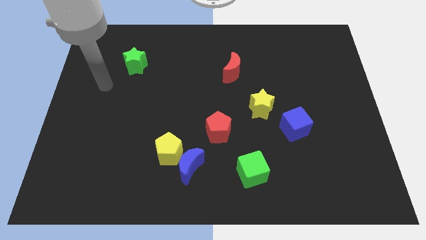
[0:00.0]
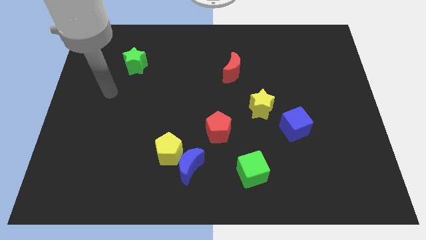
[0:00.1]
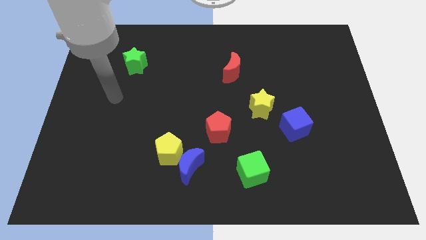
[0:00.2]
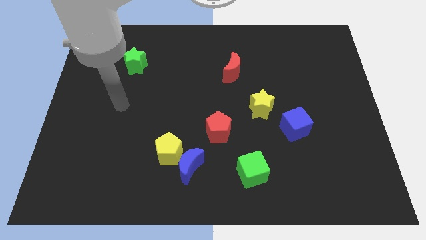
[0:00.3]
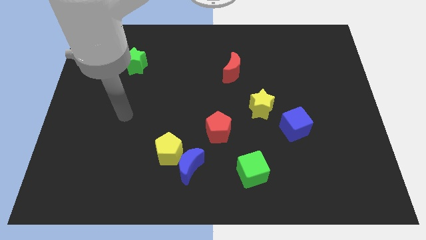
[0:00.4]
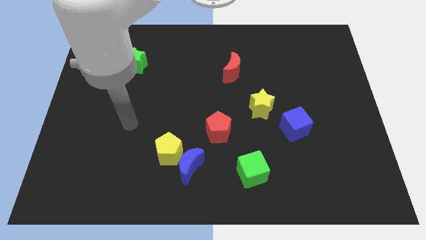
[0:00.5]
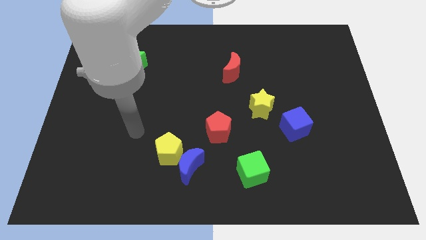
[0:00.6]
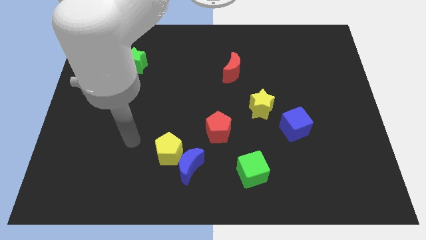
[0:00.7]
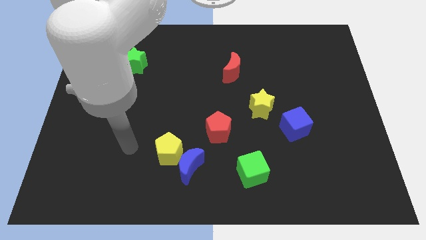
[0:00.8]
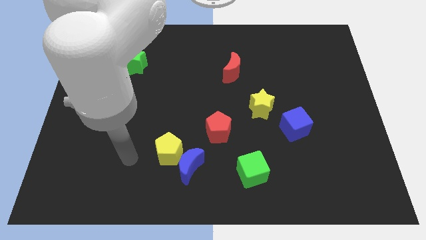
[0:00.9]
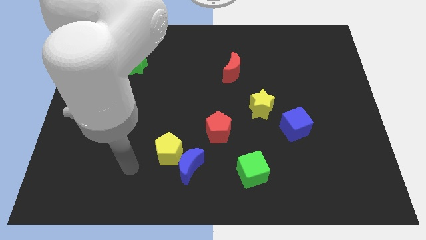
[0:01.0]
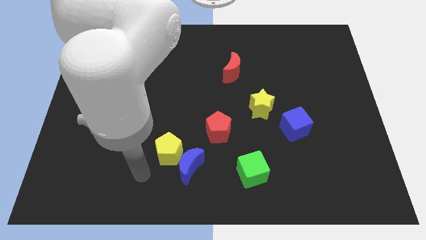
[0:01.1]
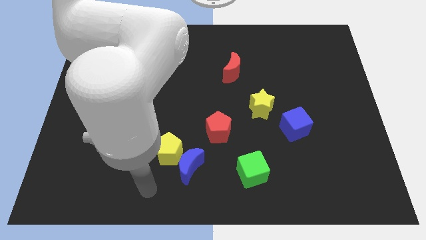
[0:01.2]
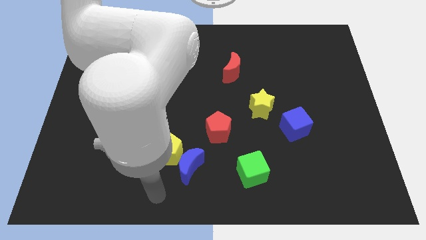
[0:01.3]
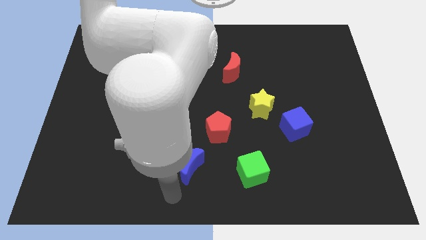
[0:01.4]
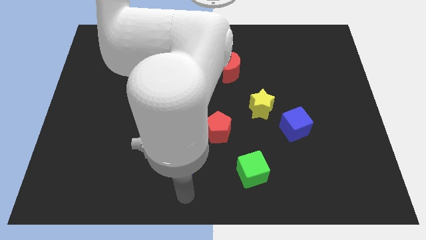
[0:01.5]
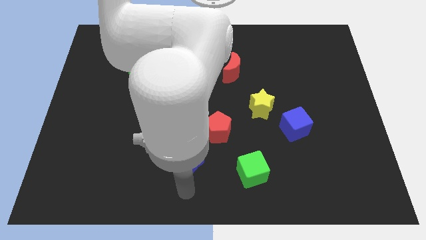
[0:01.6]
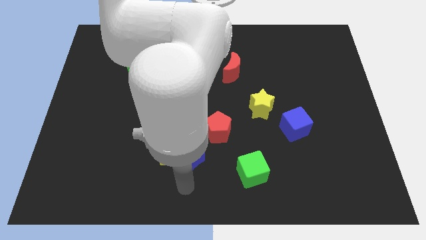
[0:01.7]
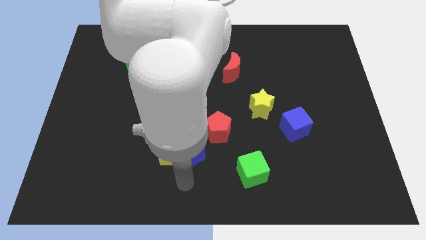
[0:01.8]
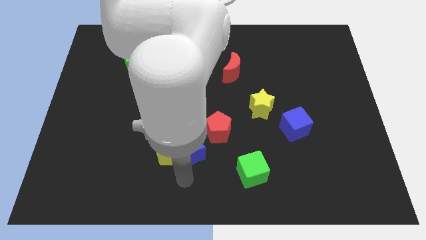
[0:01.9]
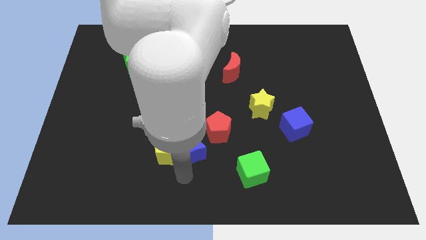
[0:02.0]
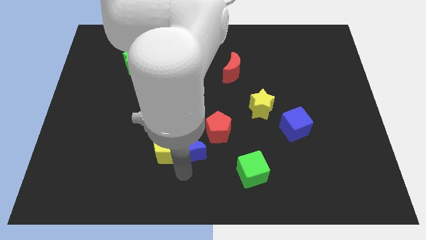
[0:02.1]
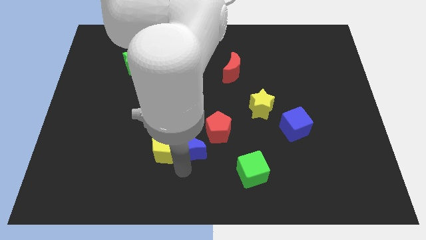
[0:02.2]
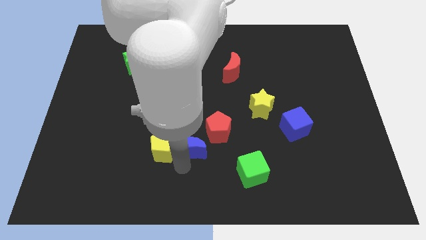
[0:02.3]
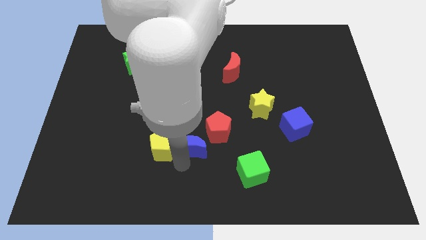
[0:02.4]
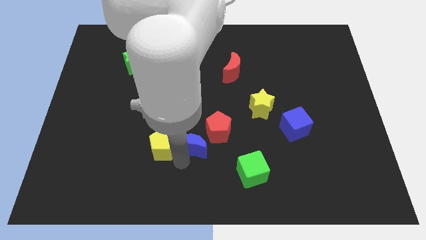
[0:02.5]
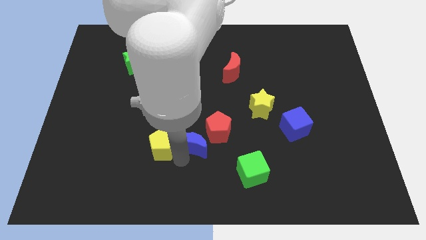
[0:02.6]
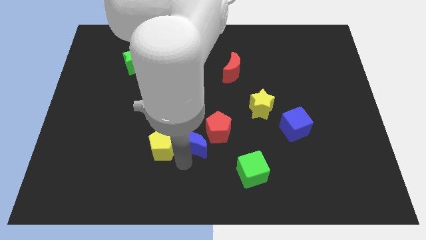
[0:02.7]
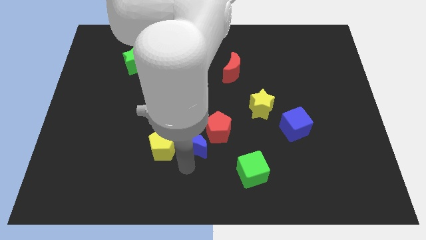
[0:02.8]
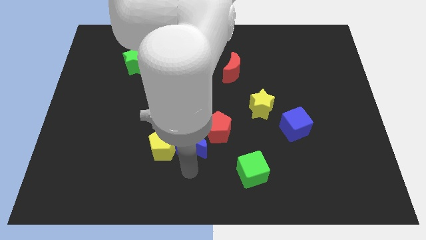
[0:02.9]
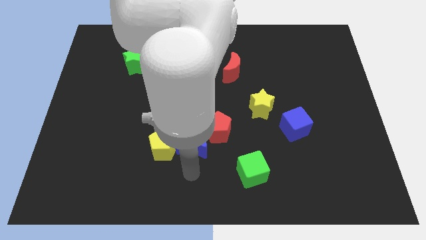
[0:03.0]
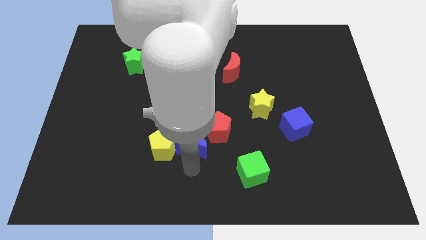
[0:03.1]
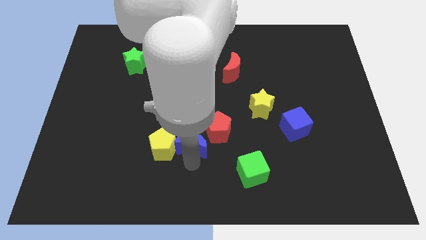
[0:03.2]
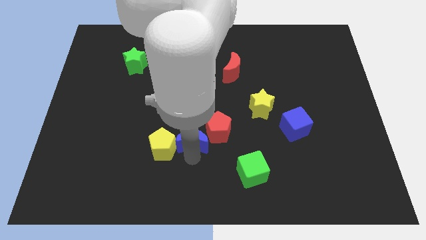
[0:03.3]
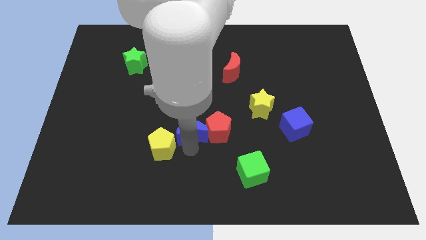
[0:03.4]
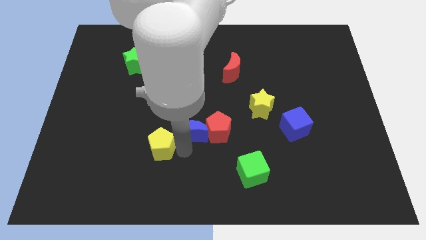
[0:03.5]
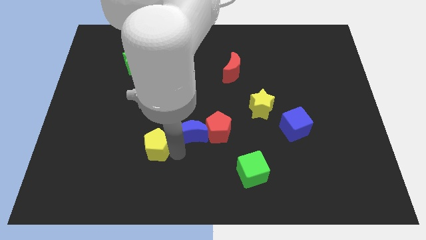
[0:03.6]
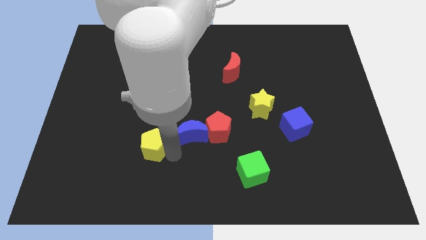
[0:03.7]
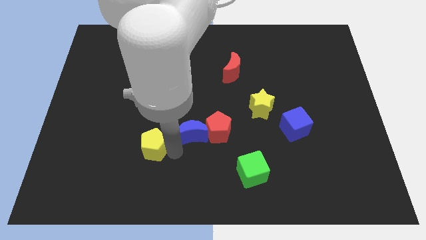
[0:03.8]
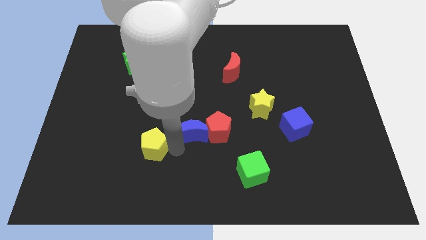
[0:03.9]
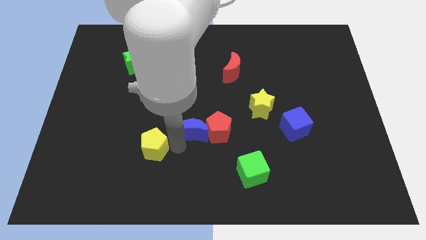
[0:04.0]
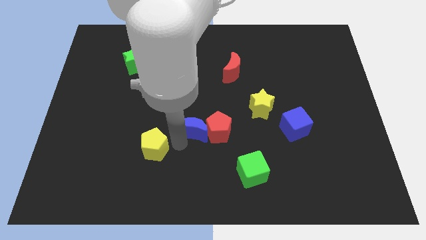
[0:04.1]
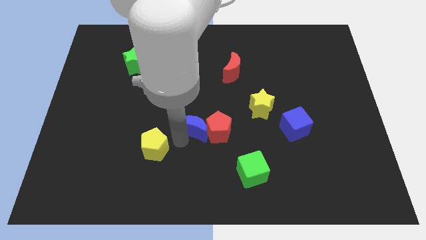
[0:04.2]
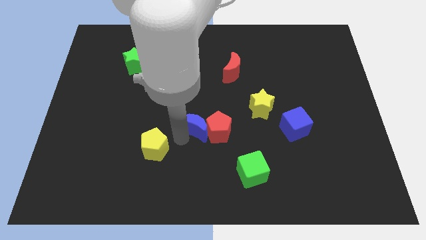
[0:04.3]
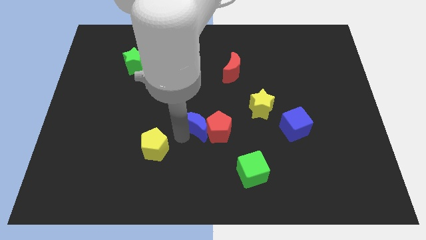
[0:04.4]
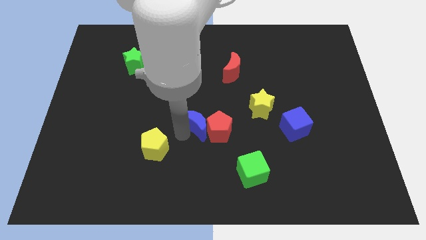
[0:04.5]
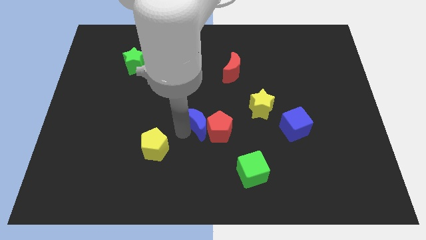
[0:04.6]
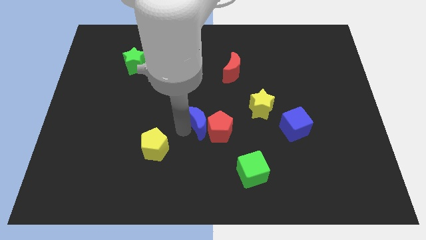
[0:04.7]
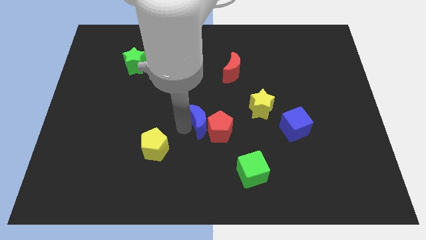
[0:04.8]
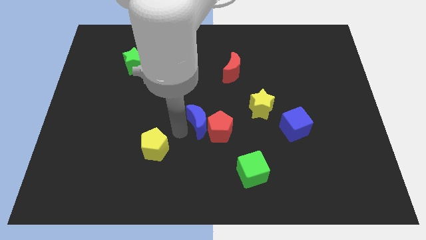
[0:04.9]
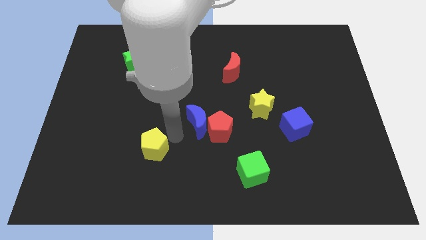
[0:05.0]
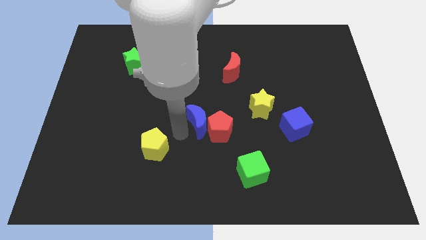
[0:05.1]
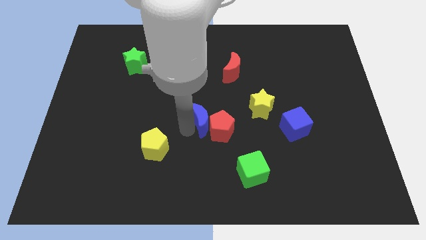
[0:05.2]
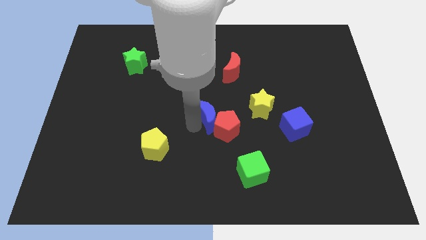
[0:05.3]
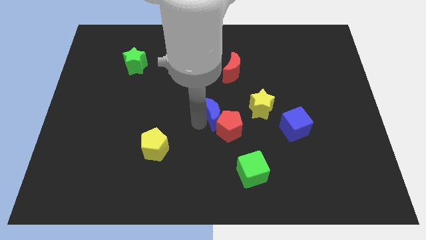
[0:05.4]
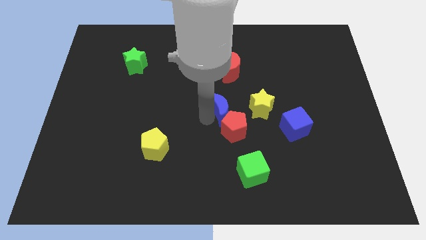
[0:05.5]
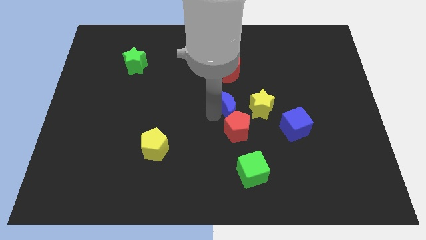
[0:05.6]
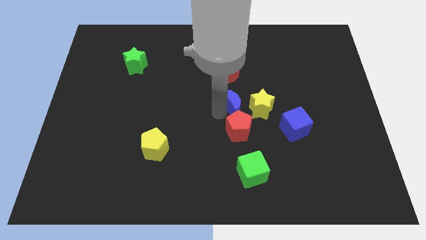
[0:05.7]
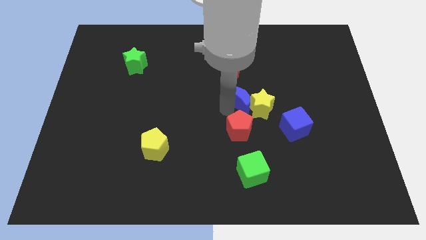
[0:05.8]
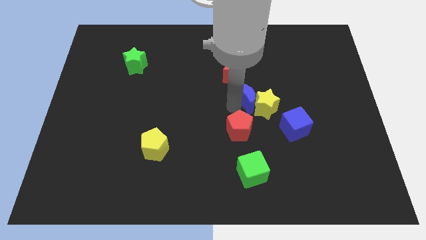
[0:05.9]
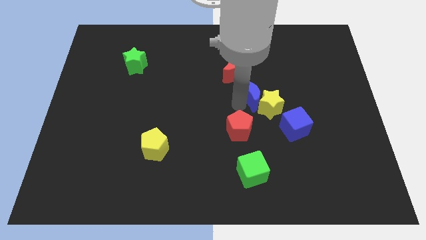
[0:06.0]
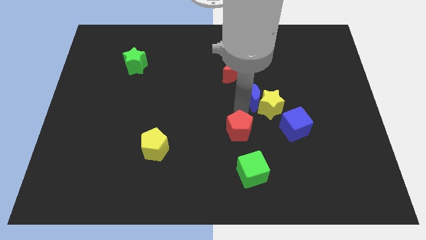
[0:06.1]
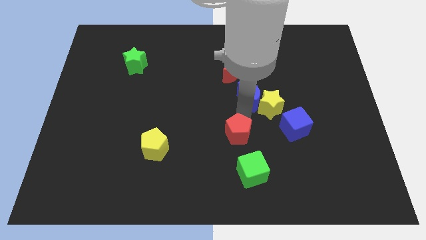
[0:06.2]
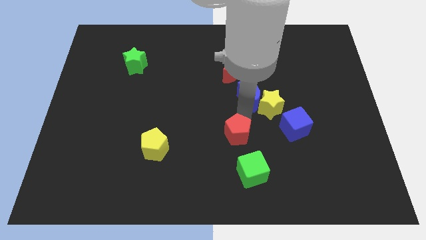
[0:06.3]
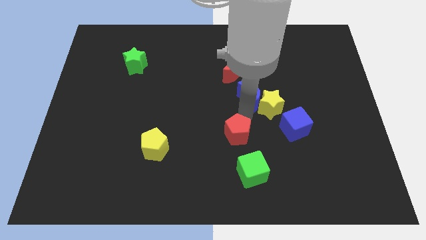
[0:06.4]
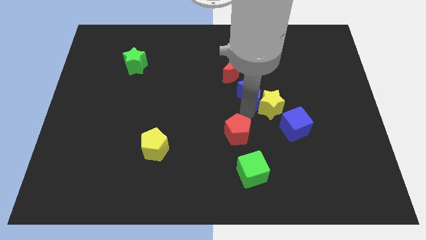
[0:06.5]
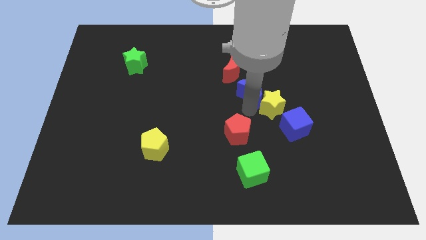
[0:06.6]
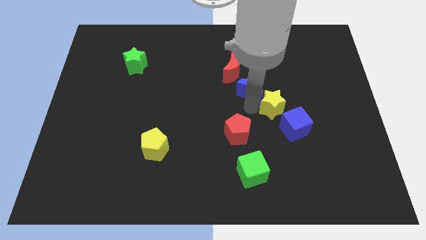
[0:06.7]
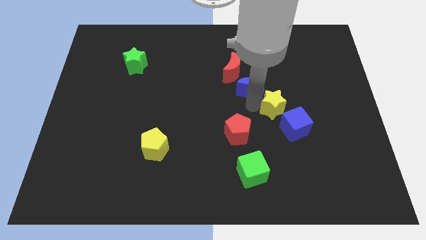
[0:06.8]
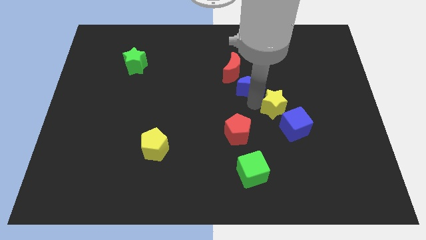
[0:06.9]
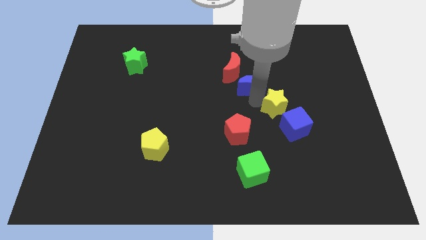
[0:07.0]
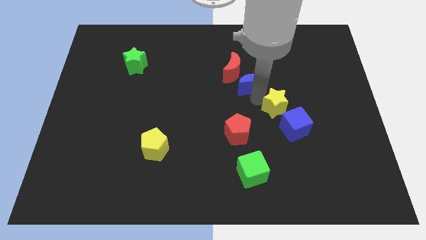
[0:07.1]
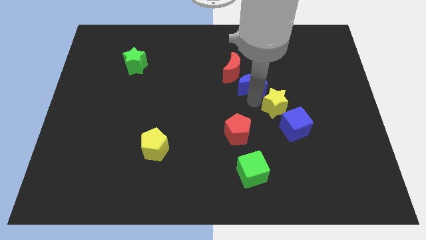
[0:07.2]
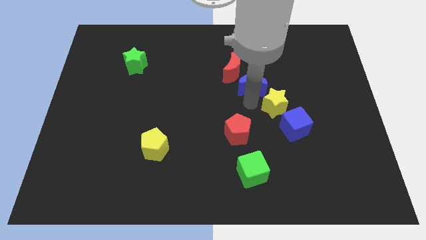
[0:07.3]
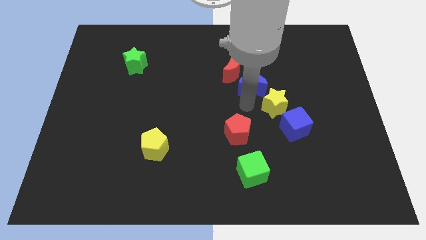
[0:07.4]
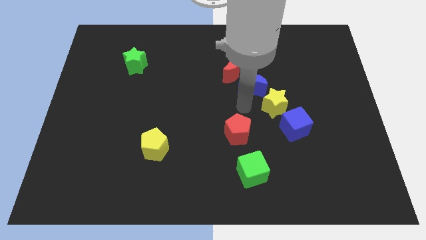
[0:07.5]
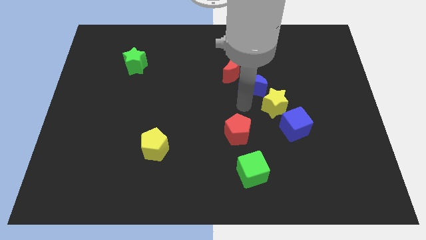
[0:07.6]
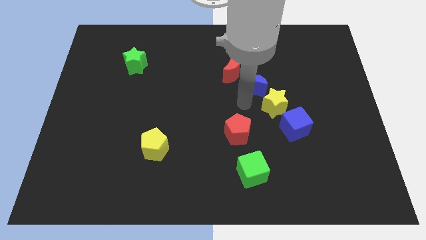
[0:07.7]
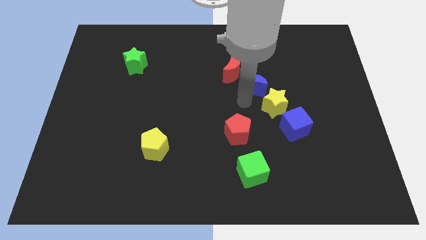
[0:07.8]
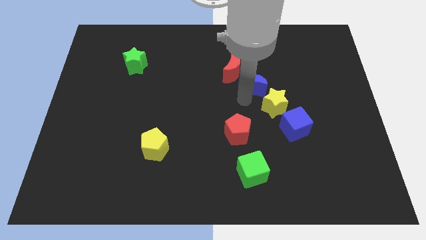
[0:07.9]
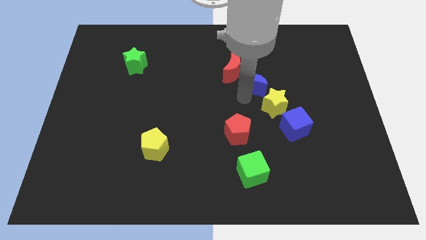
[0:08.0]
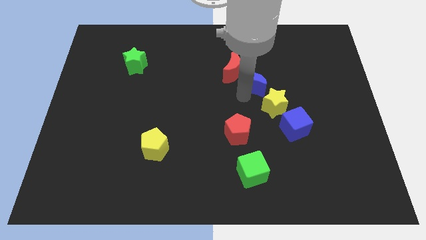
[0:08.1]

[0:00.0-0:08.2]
push the blue moon to the right of the red moon
